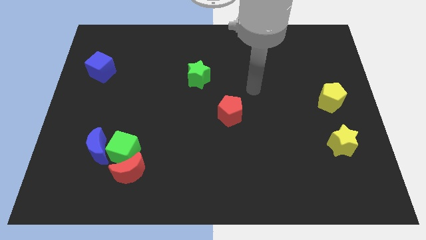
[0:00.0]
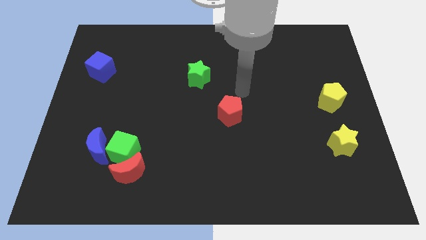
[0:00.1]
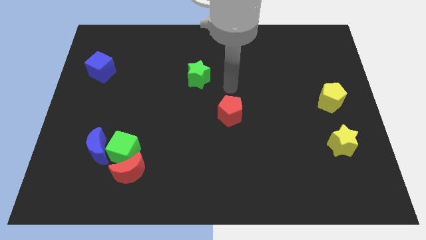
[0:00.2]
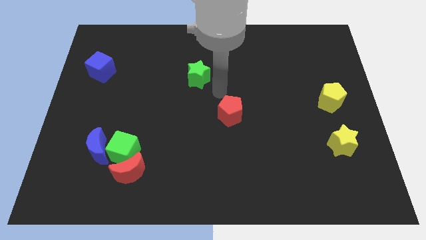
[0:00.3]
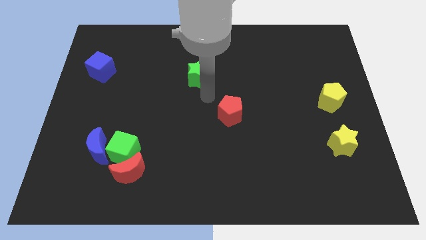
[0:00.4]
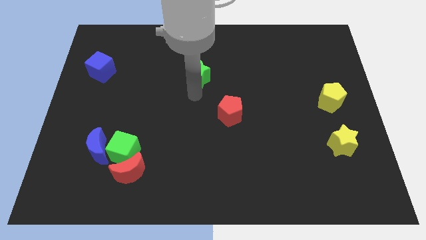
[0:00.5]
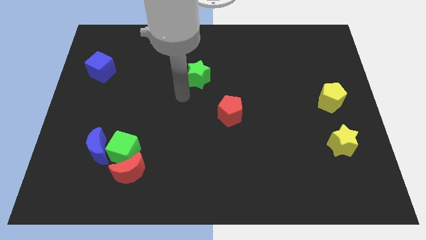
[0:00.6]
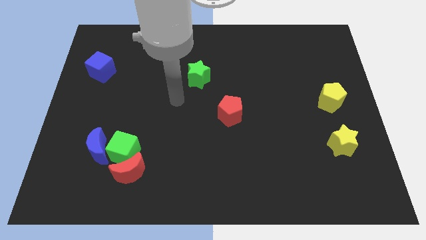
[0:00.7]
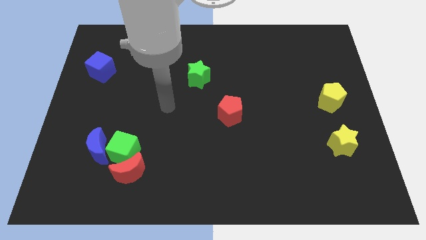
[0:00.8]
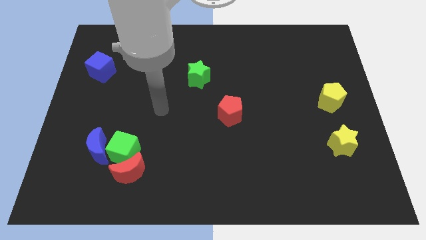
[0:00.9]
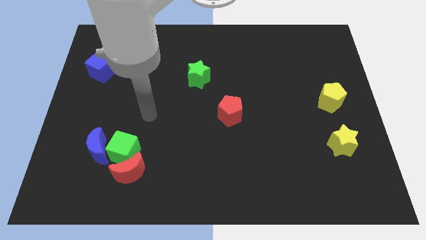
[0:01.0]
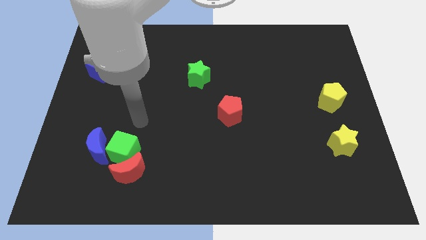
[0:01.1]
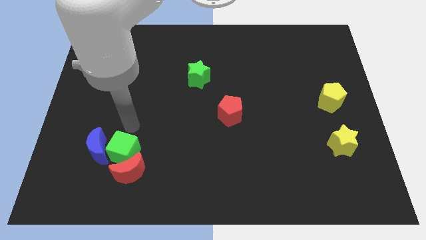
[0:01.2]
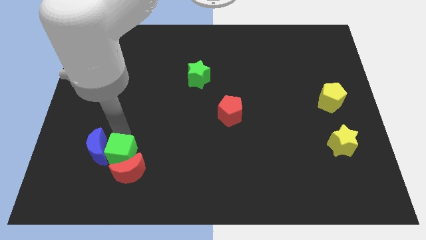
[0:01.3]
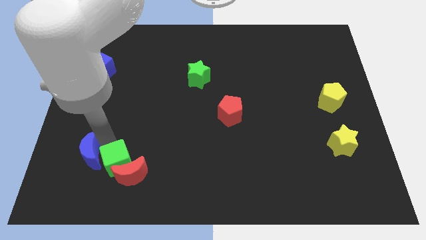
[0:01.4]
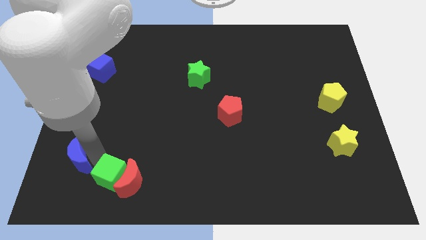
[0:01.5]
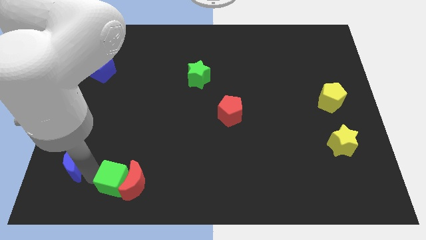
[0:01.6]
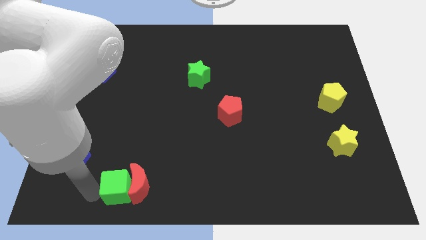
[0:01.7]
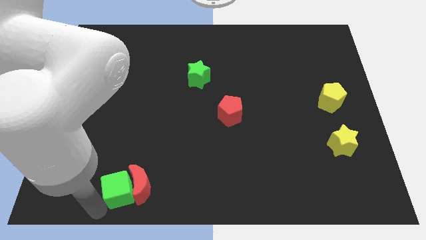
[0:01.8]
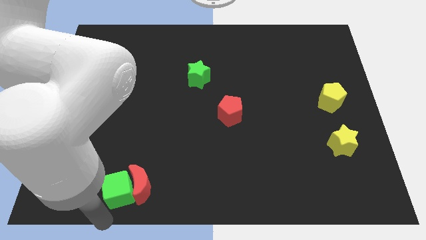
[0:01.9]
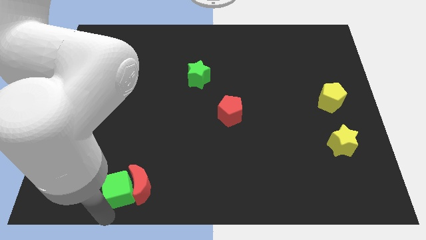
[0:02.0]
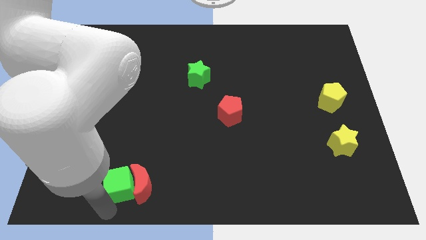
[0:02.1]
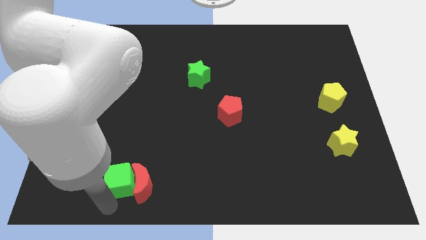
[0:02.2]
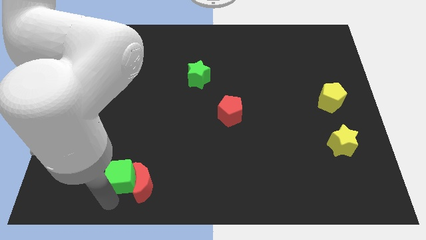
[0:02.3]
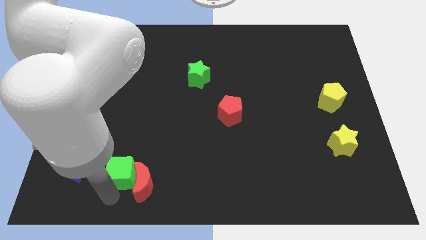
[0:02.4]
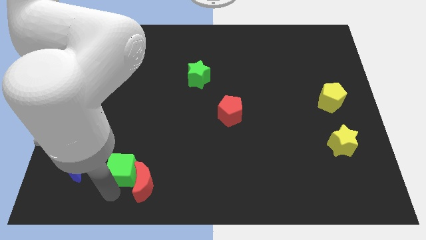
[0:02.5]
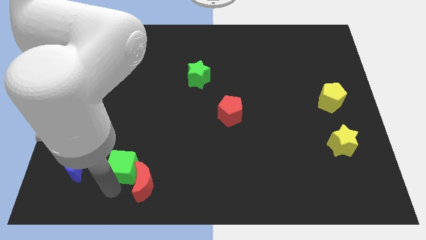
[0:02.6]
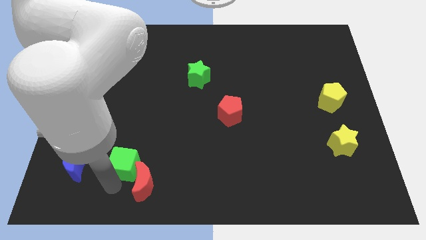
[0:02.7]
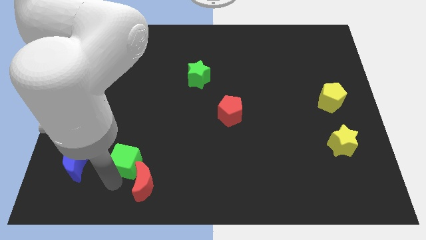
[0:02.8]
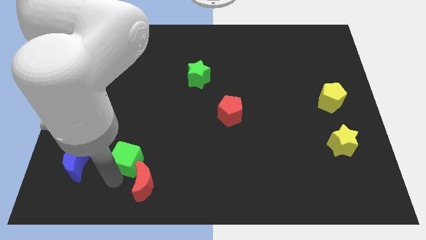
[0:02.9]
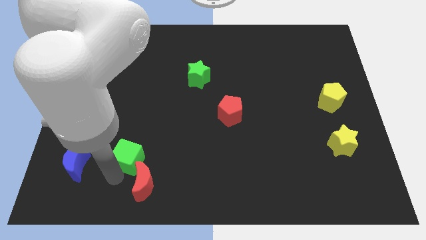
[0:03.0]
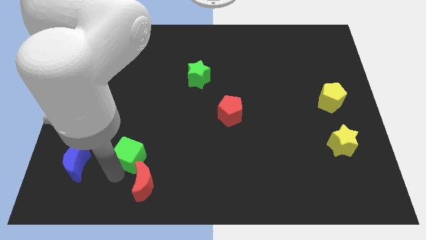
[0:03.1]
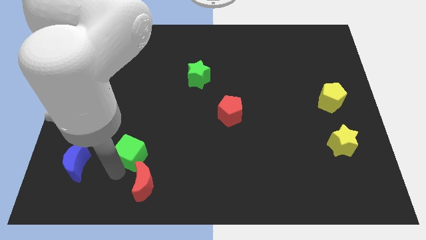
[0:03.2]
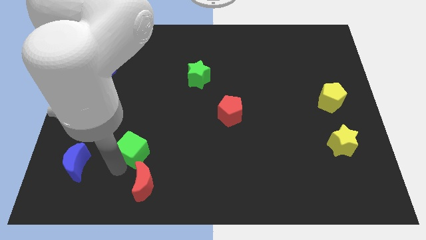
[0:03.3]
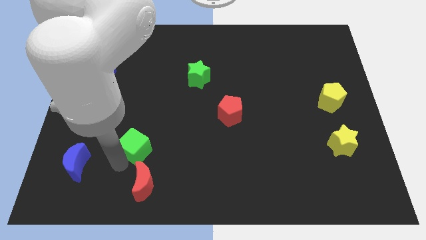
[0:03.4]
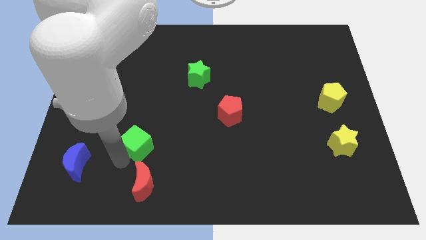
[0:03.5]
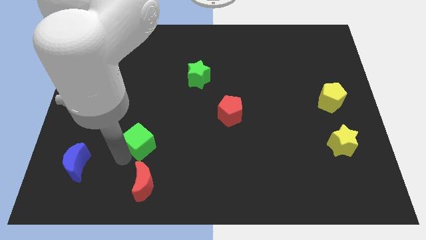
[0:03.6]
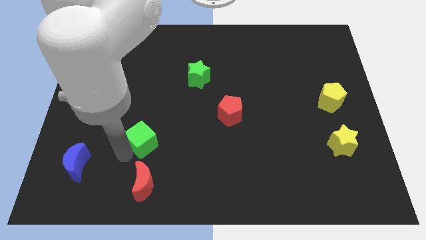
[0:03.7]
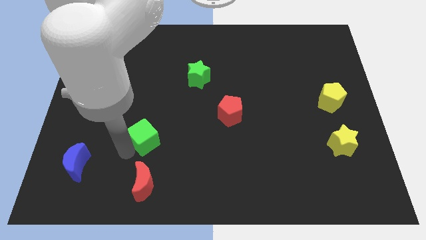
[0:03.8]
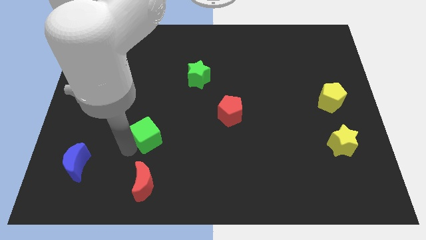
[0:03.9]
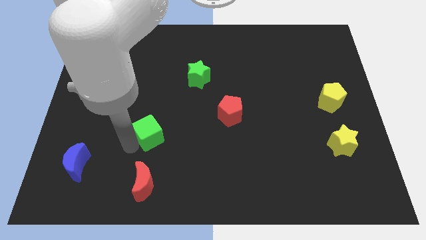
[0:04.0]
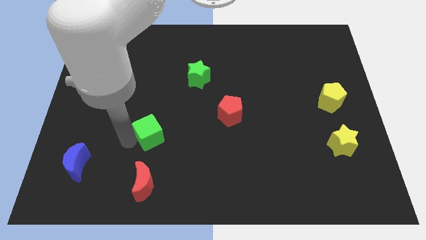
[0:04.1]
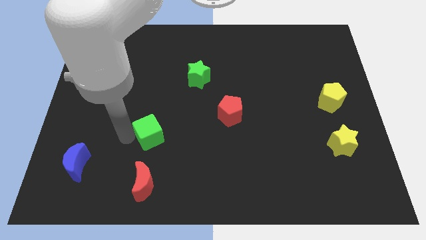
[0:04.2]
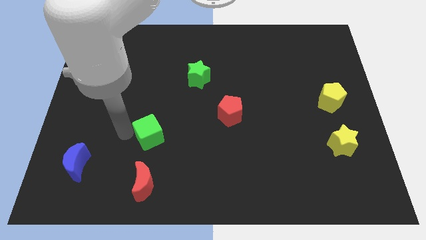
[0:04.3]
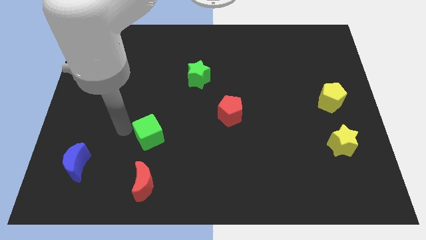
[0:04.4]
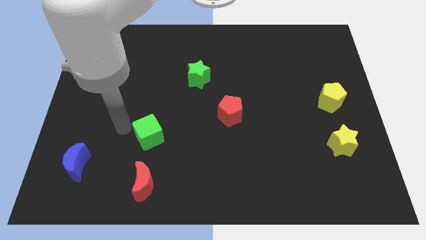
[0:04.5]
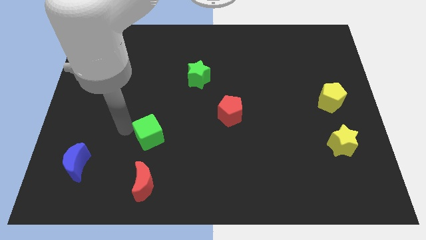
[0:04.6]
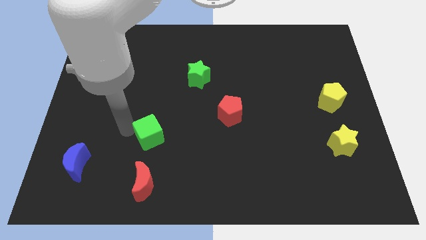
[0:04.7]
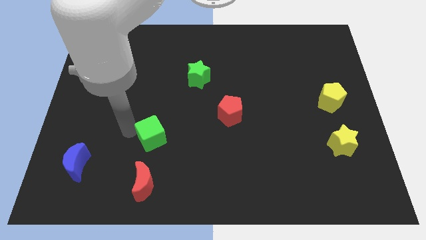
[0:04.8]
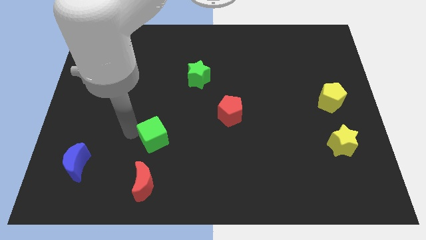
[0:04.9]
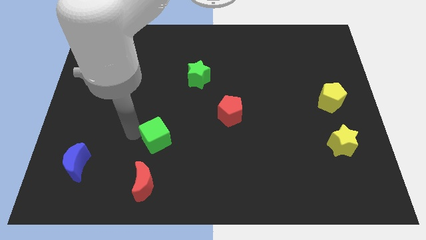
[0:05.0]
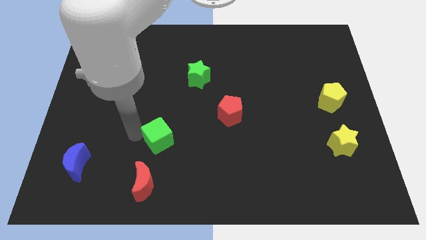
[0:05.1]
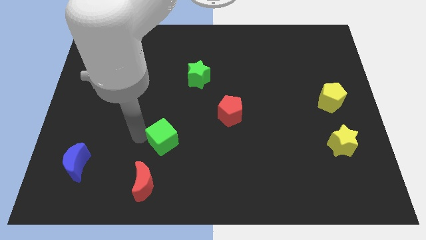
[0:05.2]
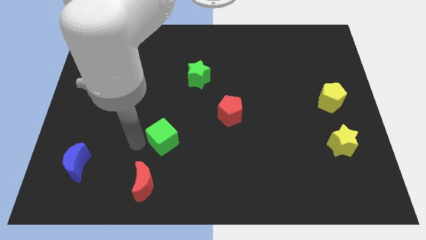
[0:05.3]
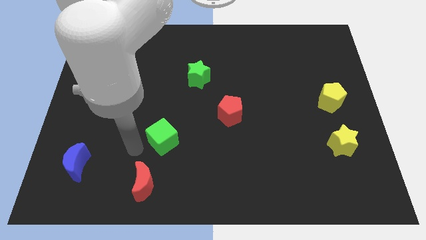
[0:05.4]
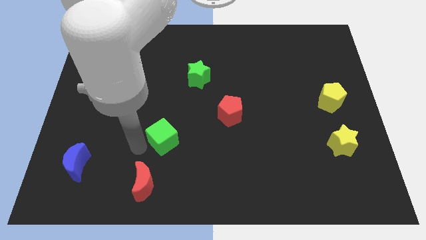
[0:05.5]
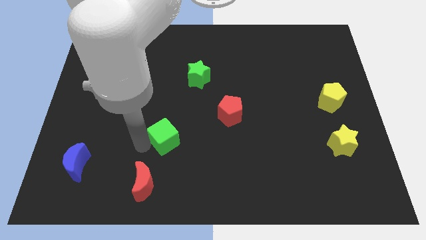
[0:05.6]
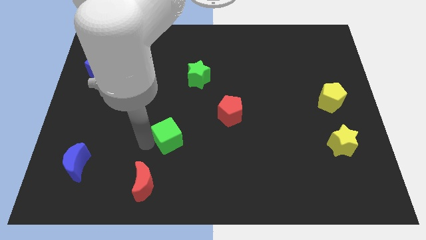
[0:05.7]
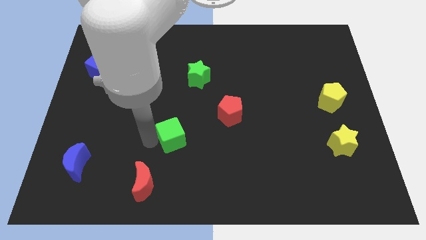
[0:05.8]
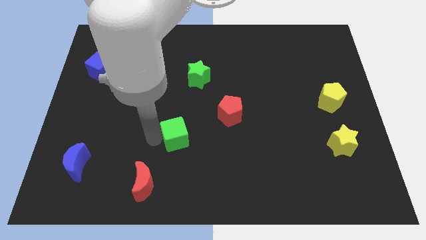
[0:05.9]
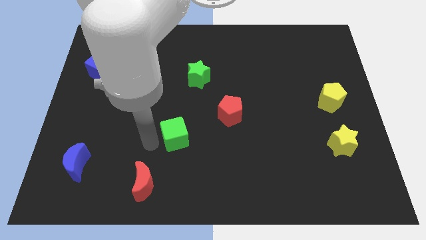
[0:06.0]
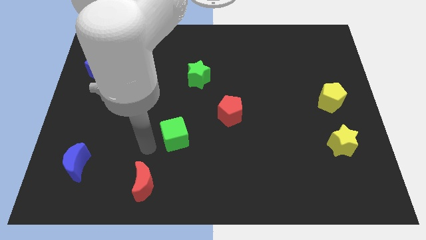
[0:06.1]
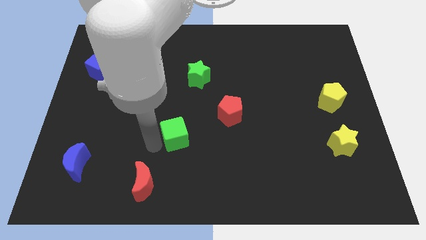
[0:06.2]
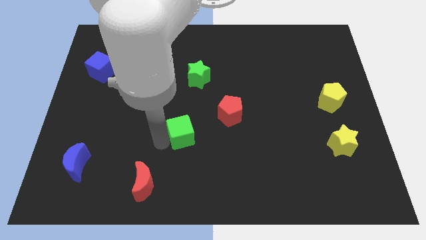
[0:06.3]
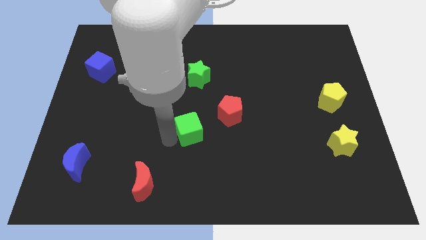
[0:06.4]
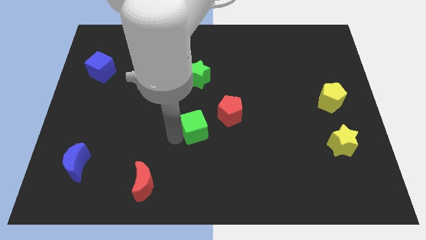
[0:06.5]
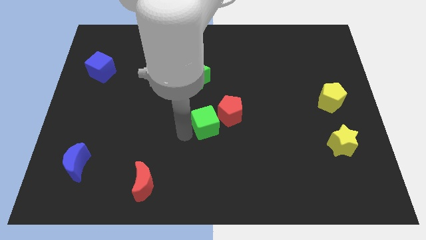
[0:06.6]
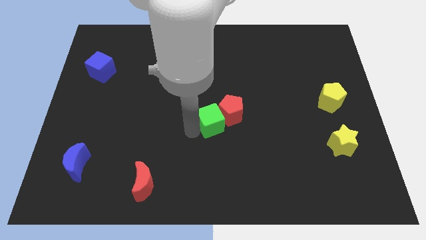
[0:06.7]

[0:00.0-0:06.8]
put the green cube towards the red pentagon
